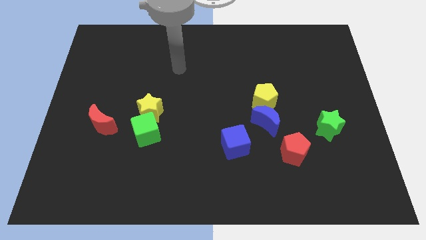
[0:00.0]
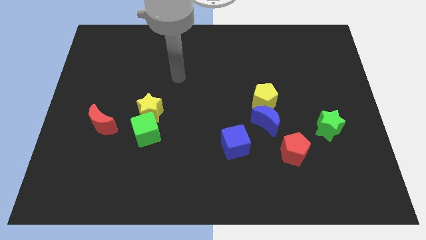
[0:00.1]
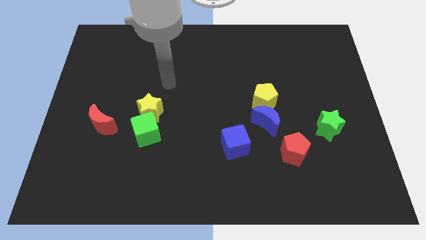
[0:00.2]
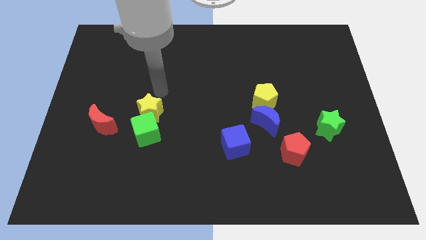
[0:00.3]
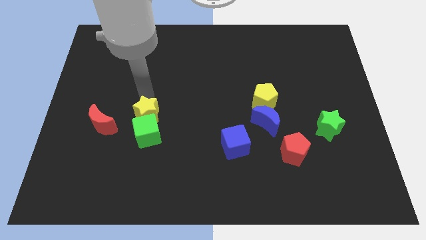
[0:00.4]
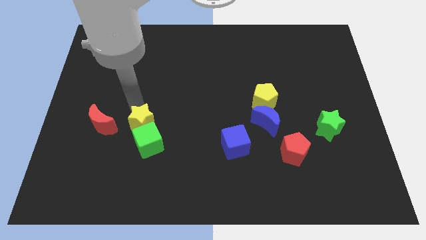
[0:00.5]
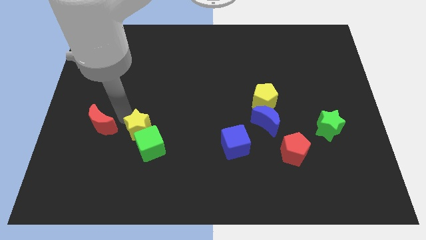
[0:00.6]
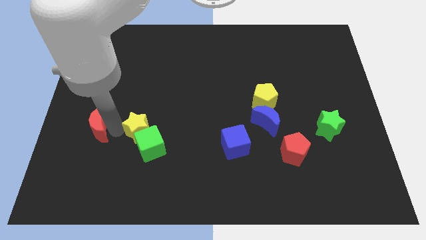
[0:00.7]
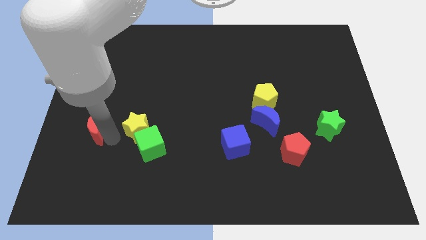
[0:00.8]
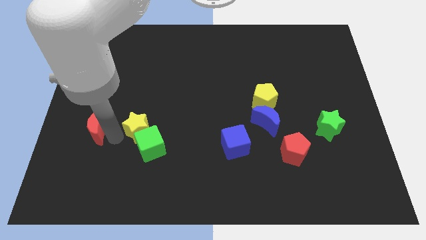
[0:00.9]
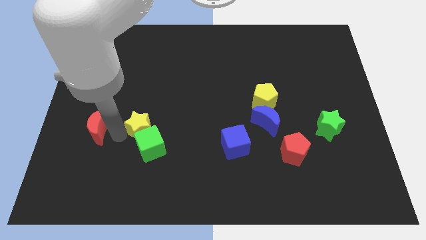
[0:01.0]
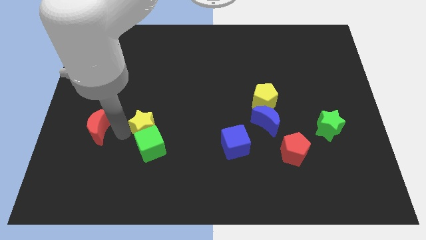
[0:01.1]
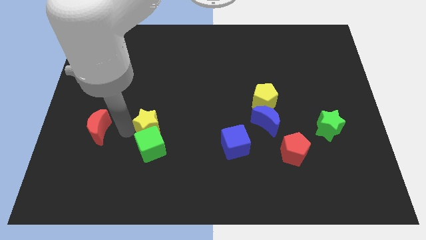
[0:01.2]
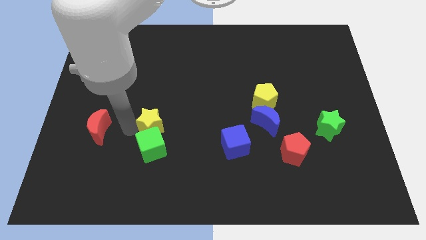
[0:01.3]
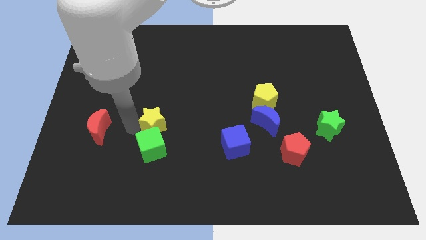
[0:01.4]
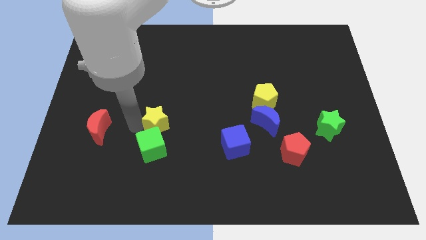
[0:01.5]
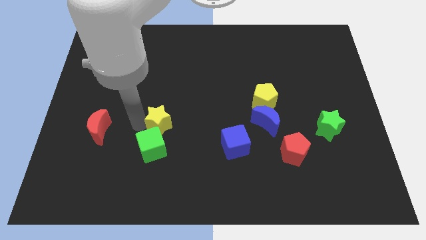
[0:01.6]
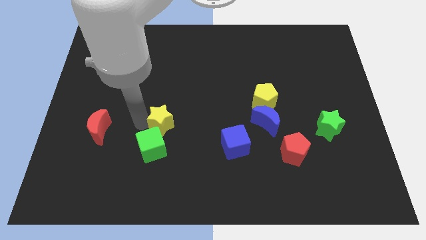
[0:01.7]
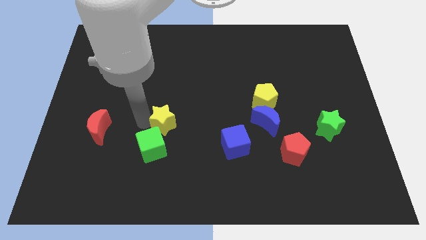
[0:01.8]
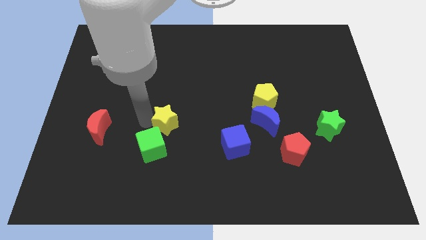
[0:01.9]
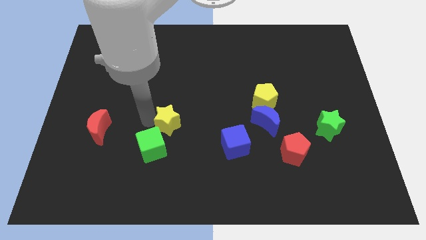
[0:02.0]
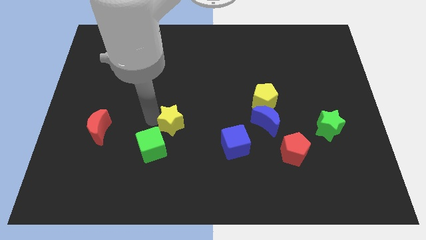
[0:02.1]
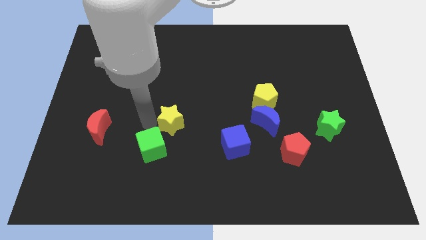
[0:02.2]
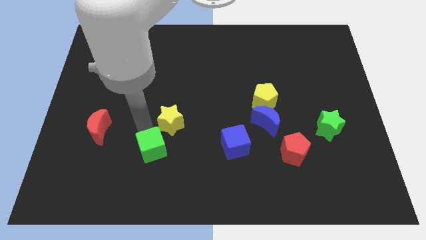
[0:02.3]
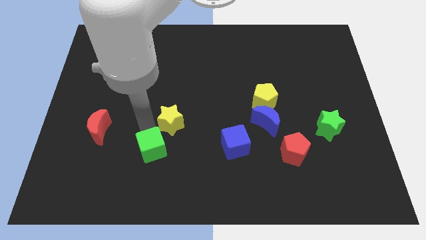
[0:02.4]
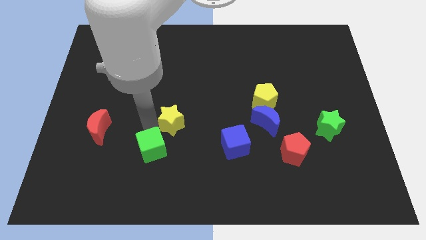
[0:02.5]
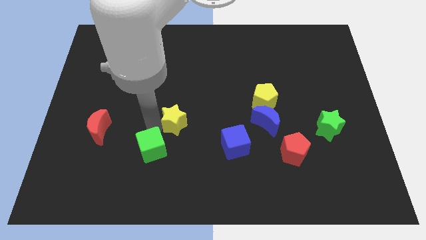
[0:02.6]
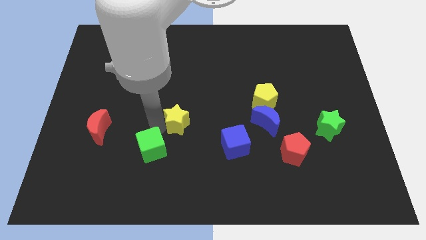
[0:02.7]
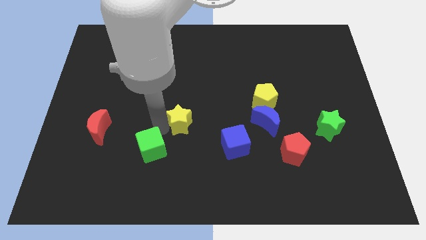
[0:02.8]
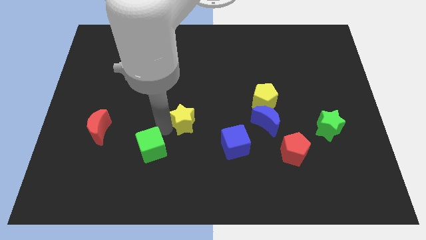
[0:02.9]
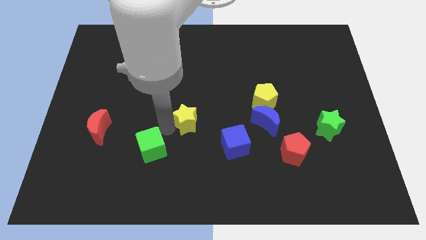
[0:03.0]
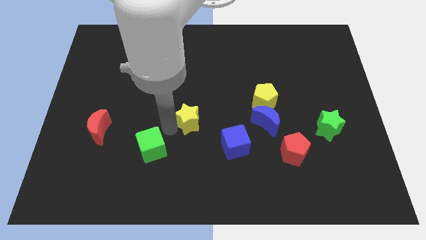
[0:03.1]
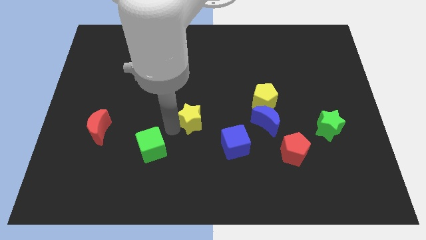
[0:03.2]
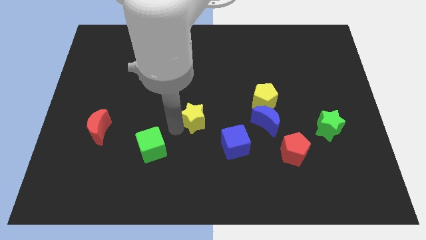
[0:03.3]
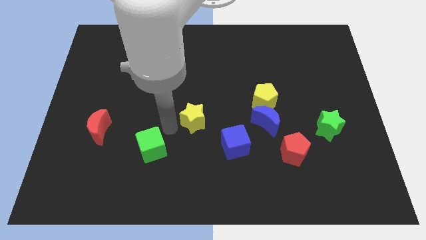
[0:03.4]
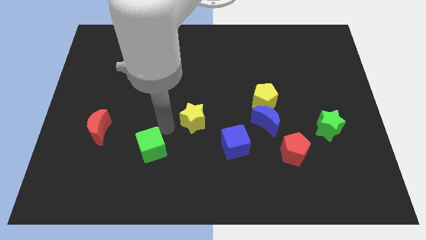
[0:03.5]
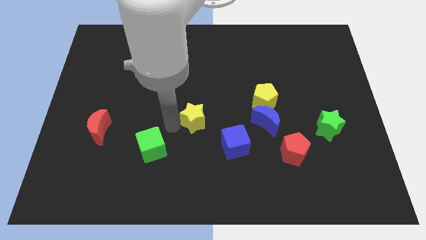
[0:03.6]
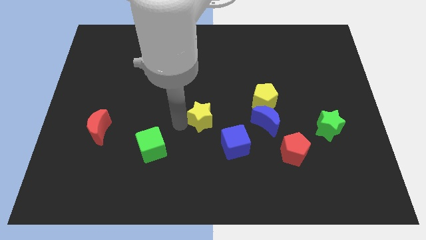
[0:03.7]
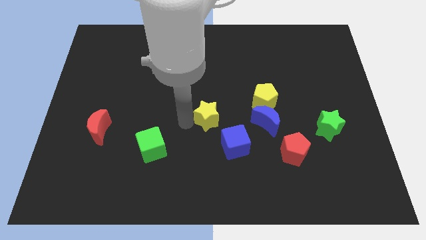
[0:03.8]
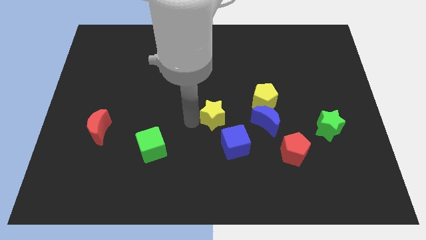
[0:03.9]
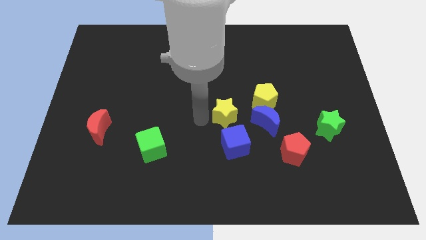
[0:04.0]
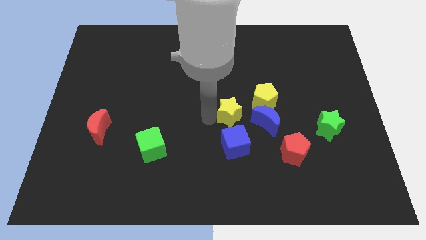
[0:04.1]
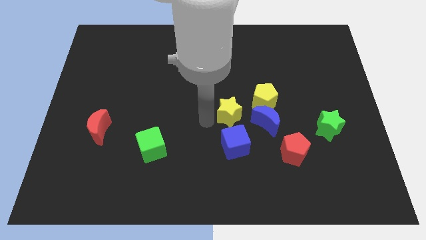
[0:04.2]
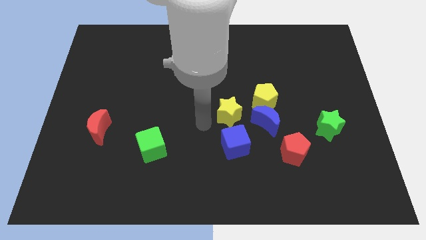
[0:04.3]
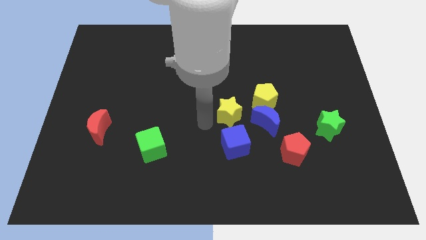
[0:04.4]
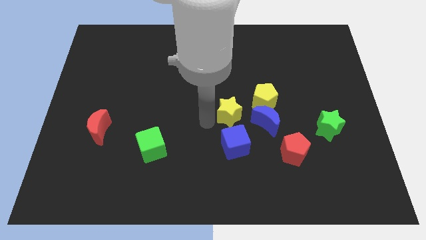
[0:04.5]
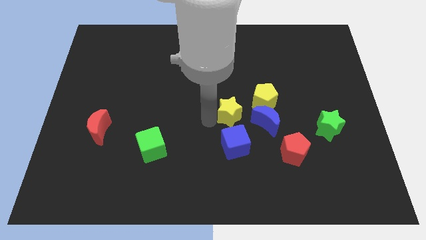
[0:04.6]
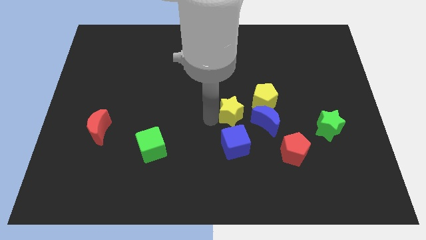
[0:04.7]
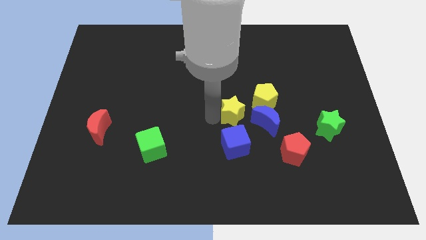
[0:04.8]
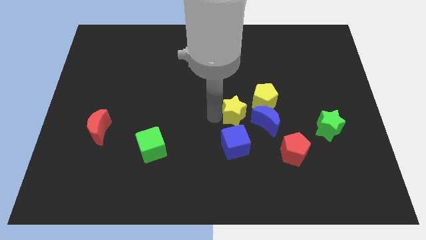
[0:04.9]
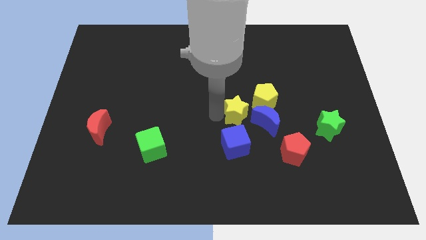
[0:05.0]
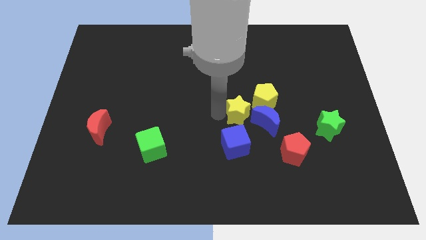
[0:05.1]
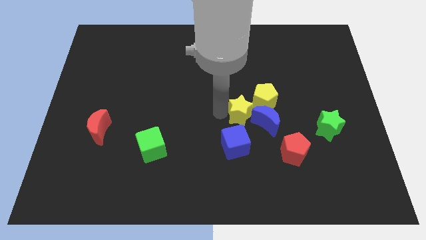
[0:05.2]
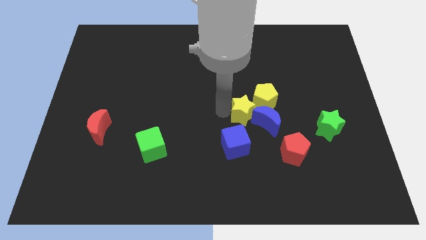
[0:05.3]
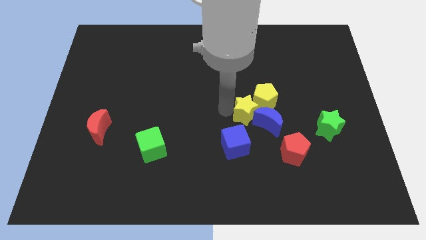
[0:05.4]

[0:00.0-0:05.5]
push the yellow star close to the yellow pentagon

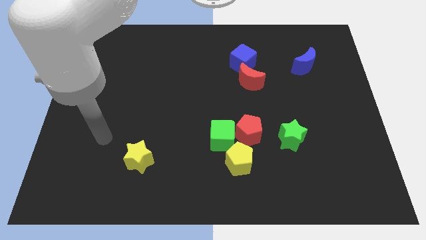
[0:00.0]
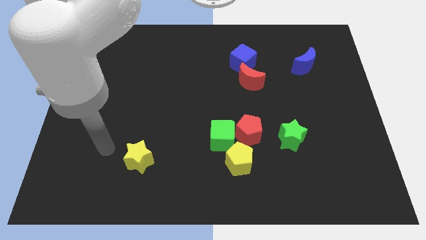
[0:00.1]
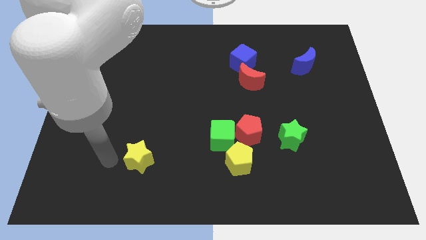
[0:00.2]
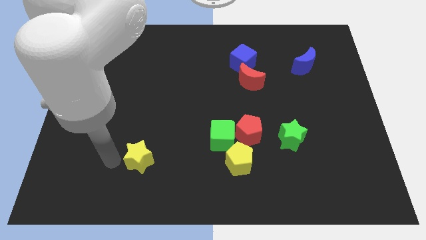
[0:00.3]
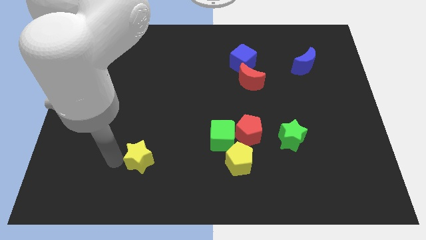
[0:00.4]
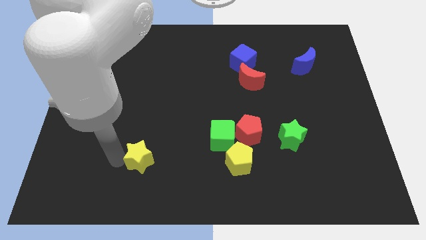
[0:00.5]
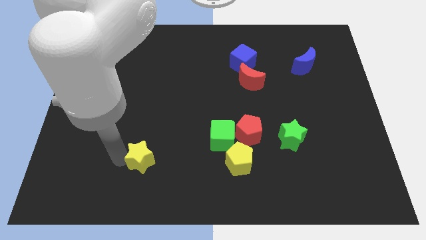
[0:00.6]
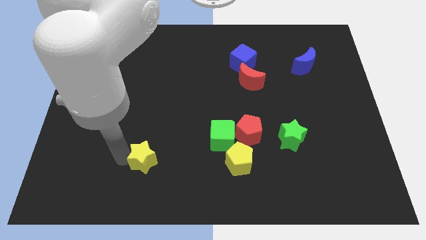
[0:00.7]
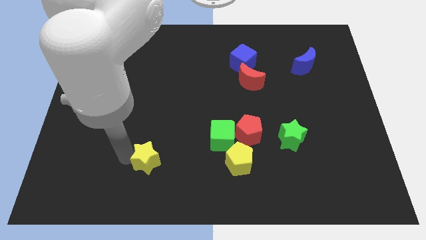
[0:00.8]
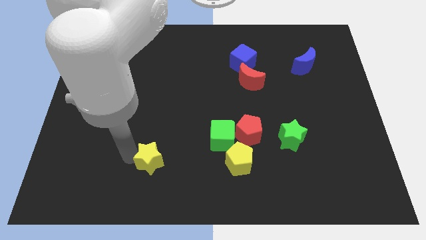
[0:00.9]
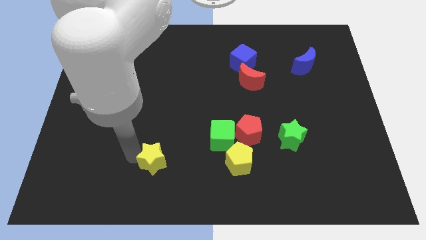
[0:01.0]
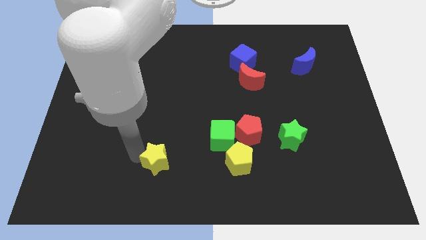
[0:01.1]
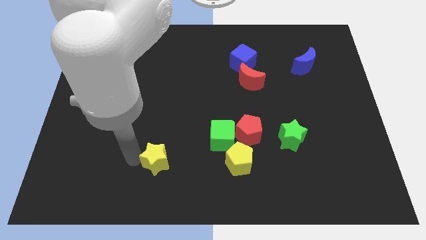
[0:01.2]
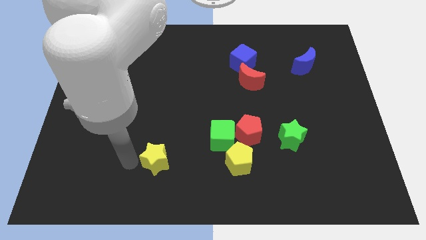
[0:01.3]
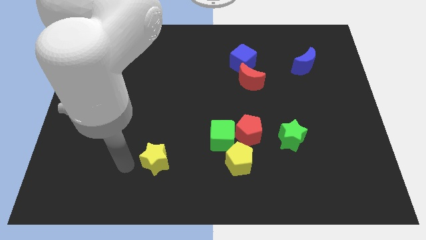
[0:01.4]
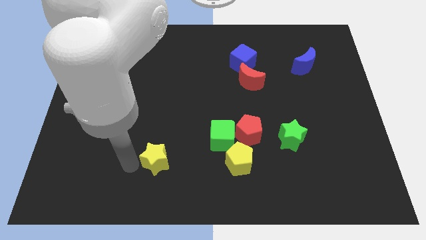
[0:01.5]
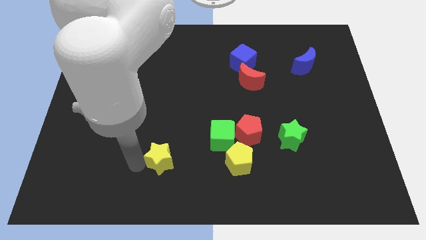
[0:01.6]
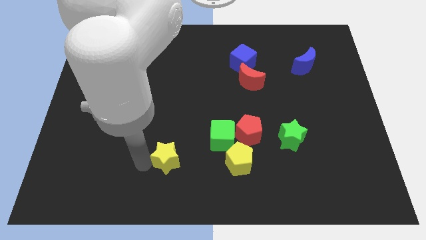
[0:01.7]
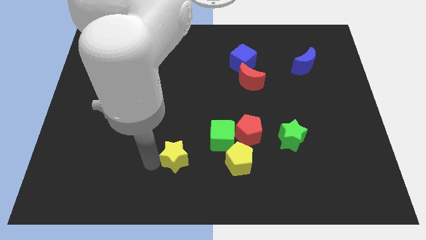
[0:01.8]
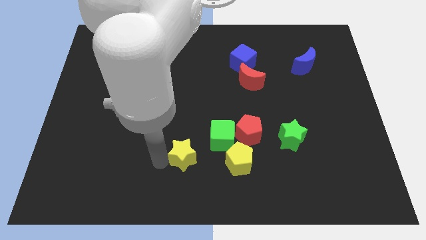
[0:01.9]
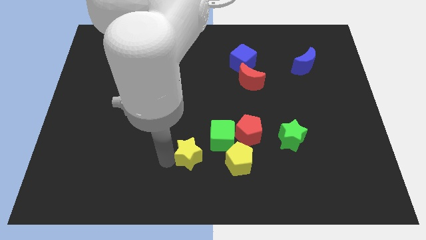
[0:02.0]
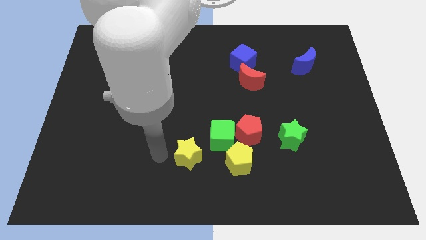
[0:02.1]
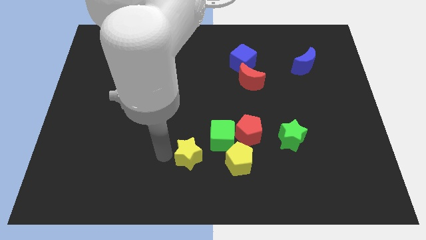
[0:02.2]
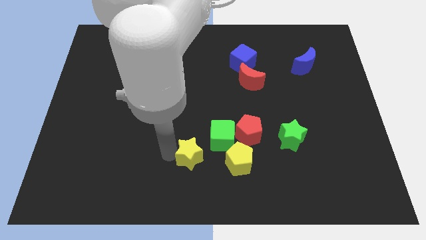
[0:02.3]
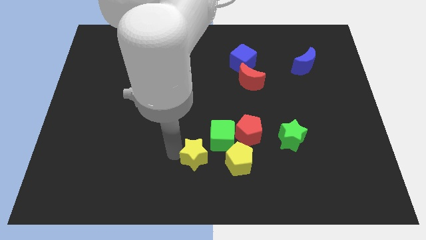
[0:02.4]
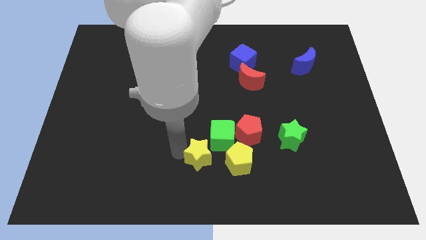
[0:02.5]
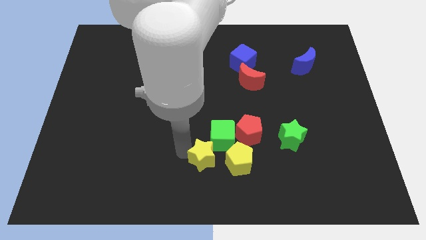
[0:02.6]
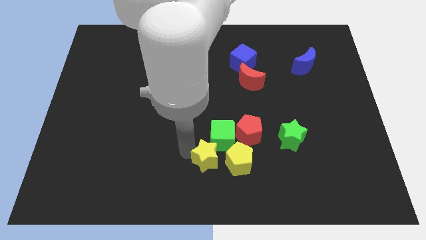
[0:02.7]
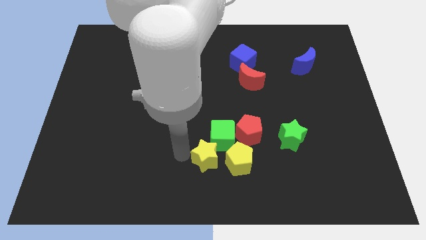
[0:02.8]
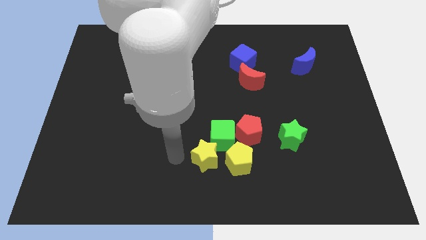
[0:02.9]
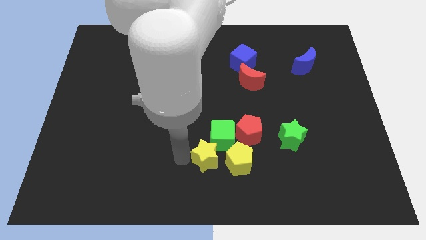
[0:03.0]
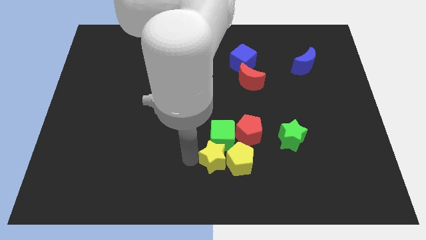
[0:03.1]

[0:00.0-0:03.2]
slide the yellow star to the yellow pentagon
